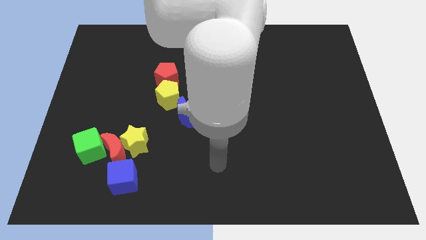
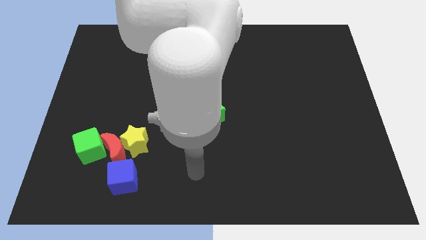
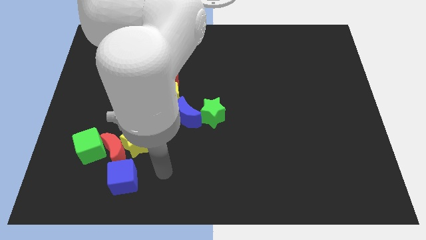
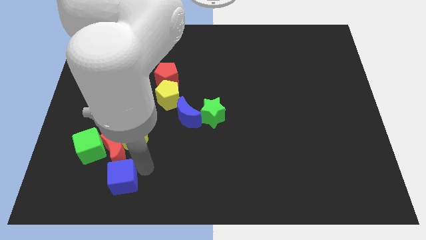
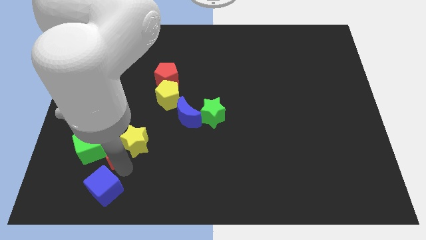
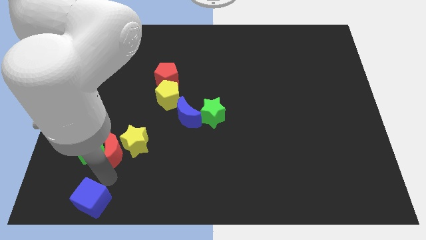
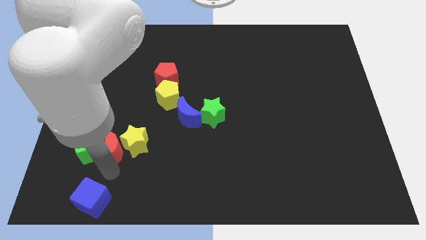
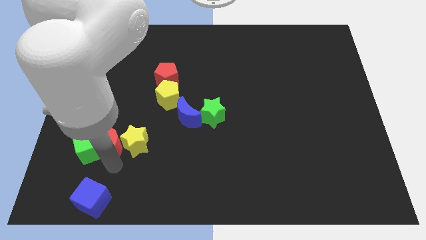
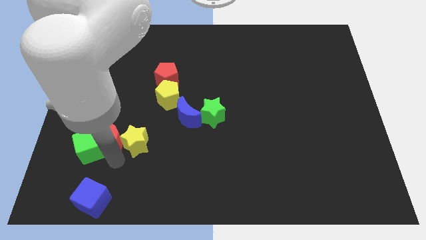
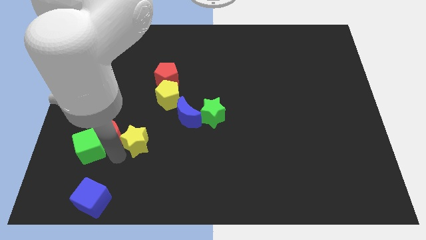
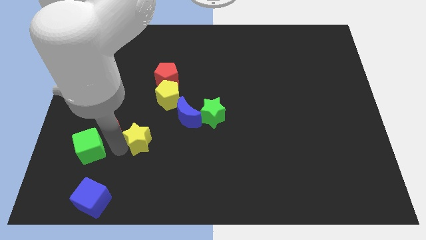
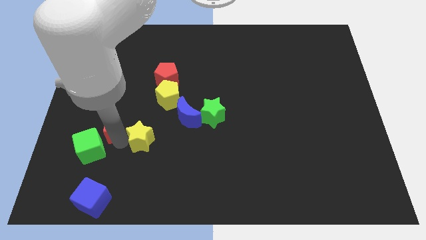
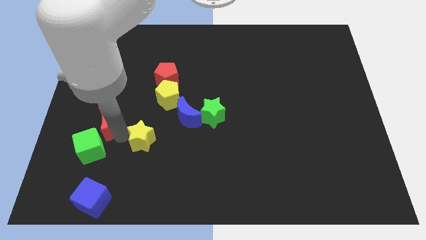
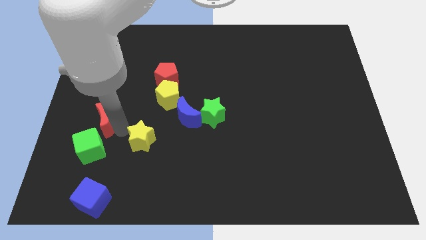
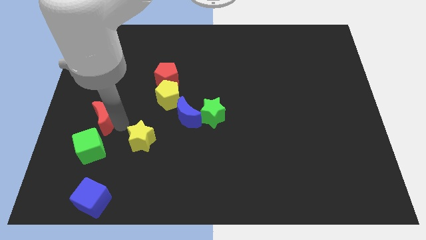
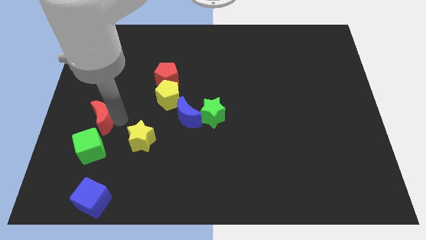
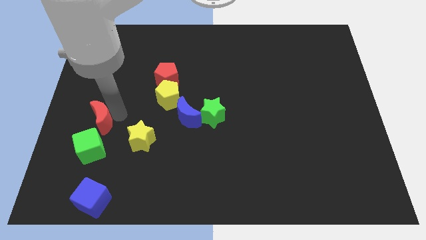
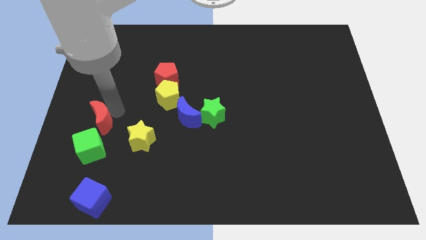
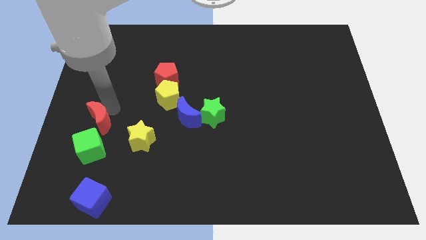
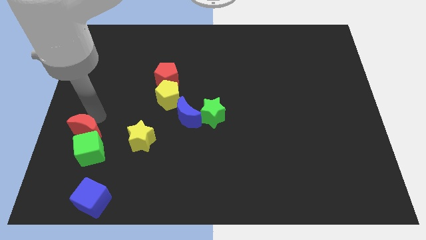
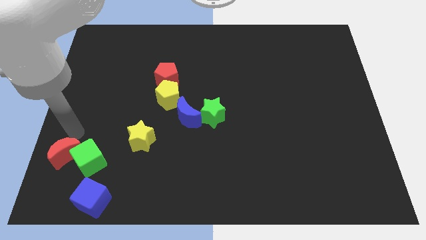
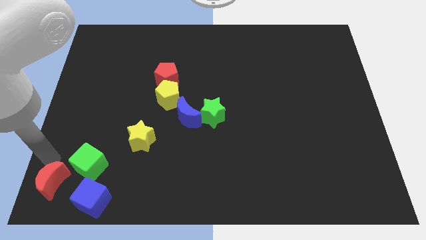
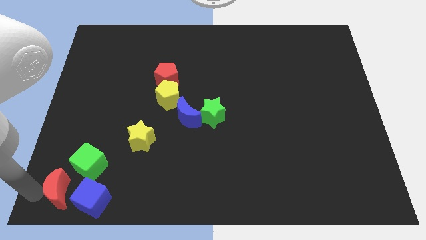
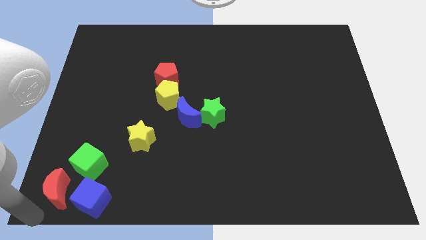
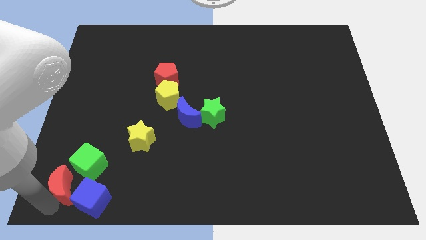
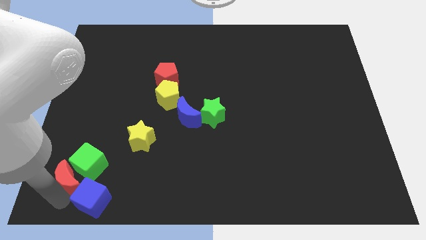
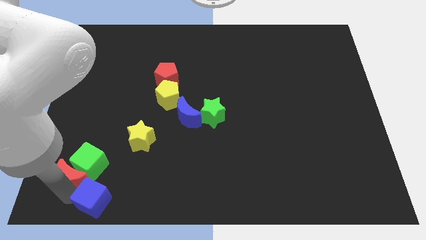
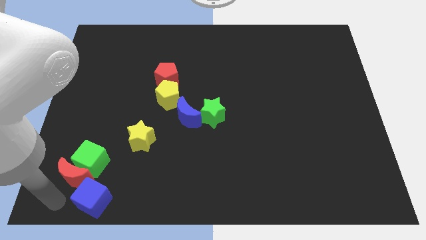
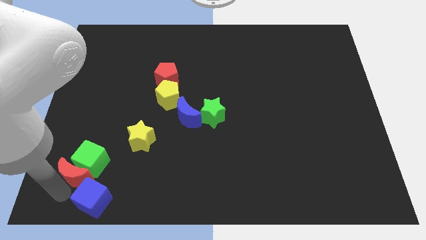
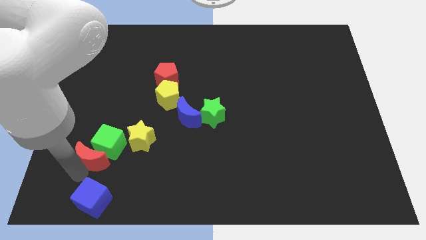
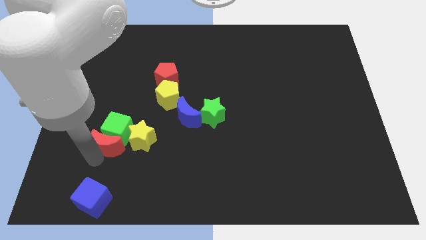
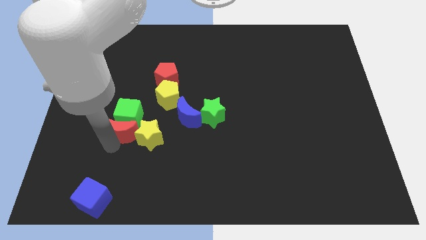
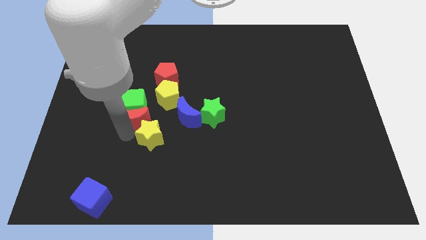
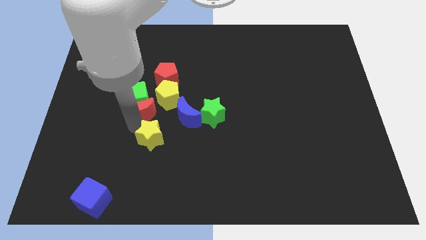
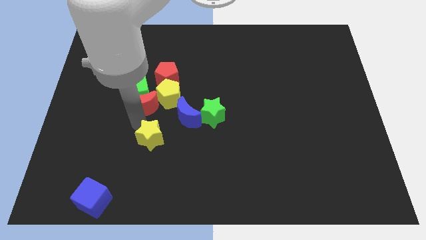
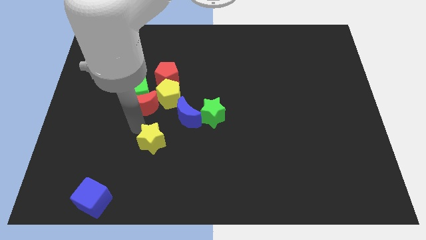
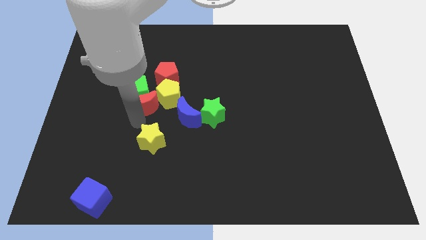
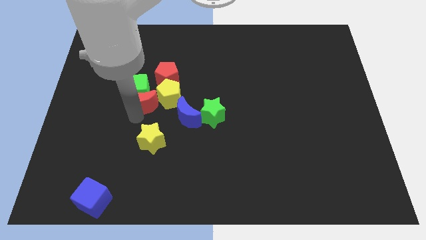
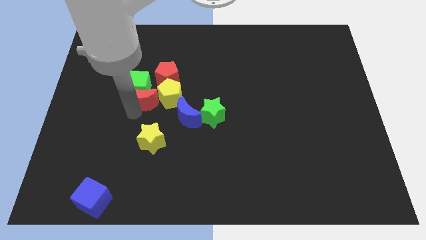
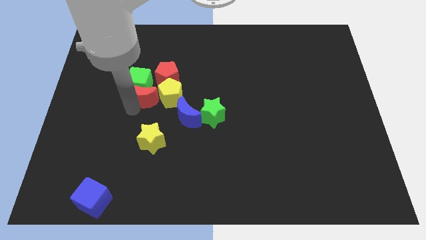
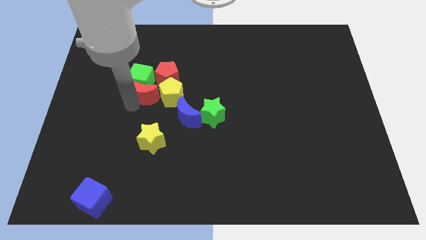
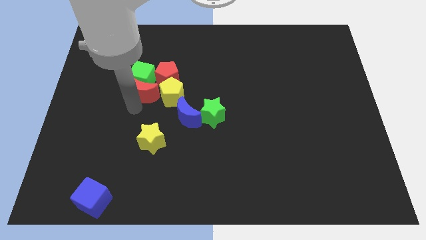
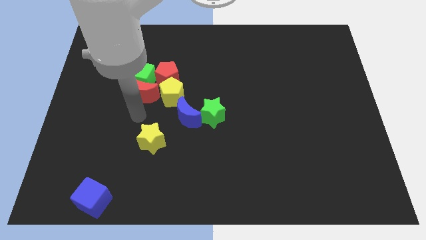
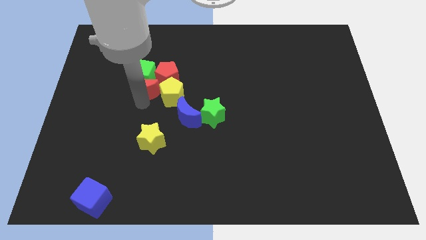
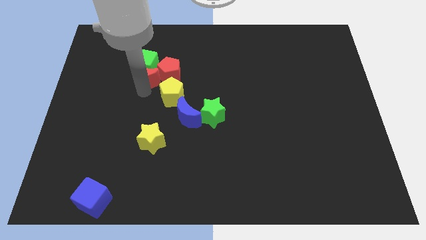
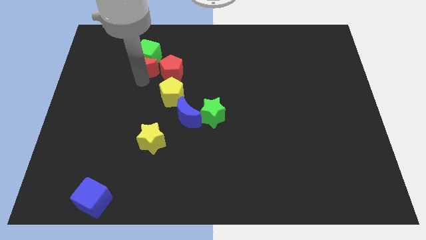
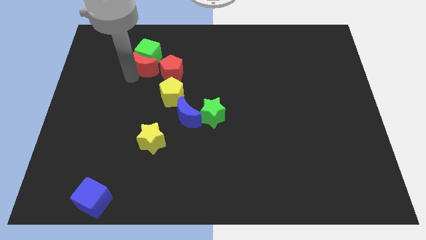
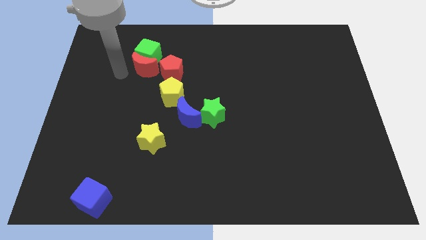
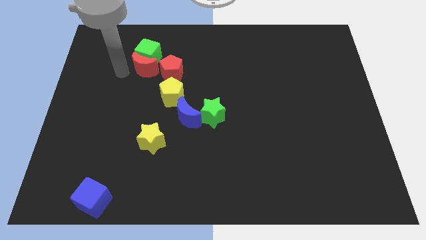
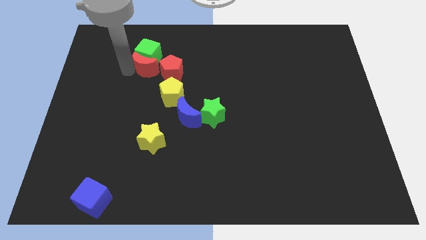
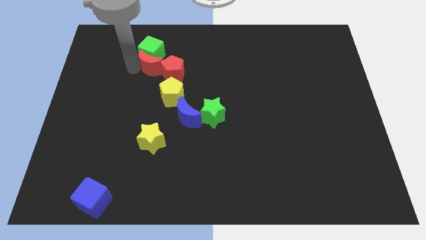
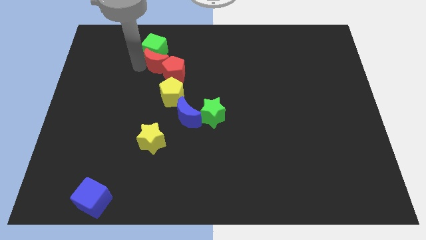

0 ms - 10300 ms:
push the red moon to the top of the yellow pentagon

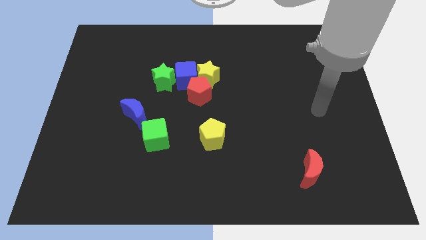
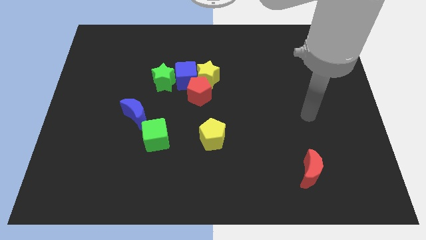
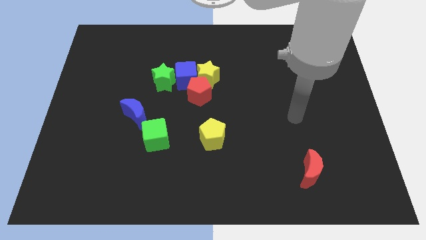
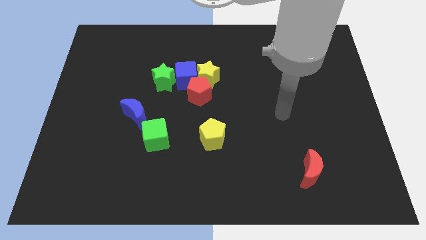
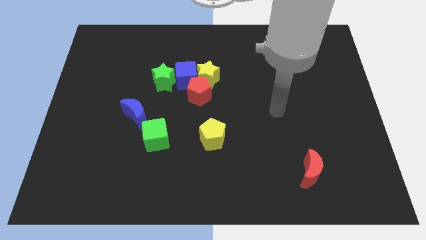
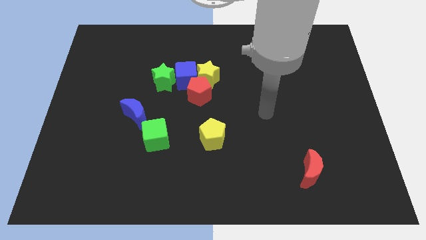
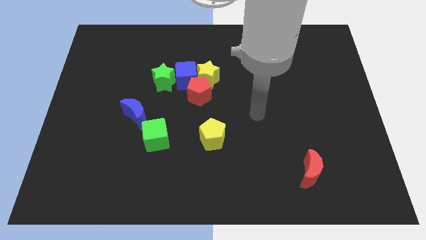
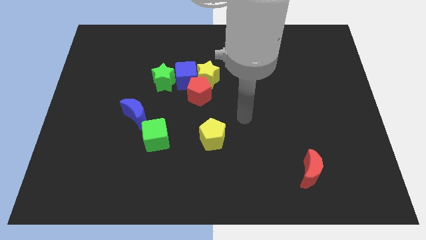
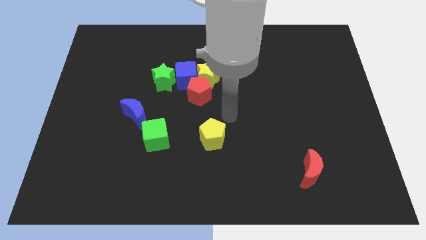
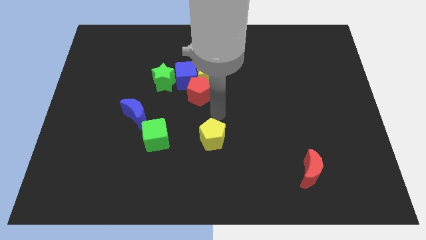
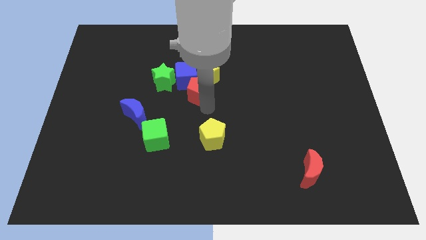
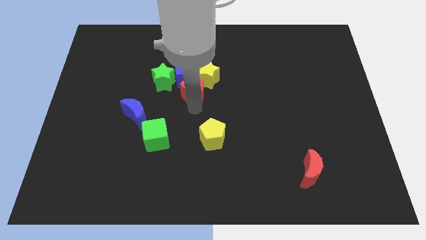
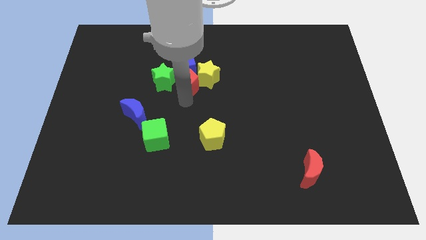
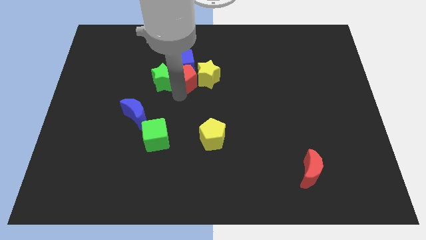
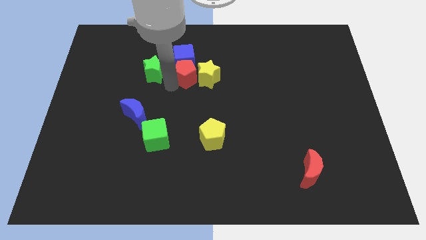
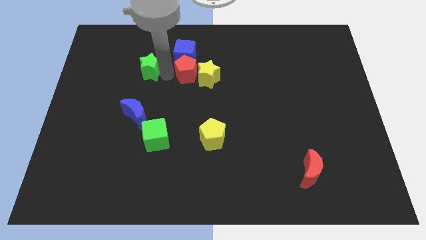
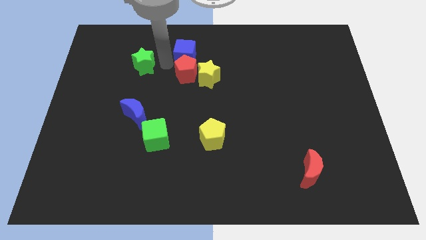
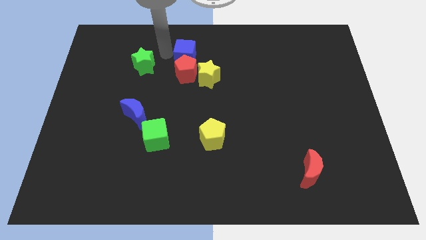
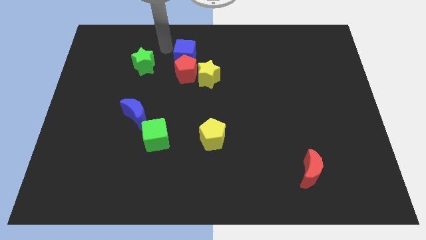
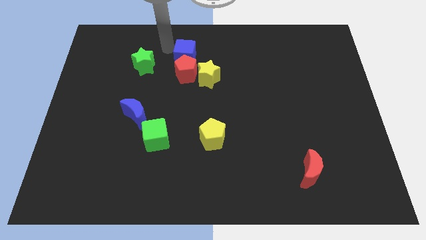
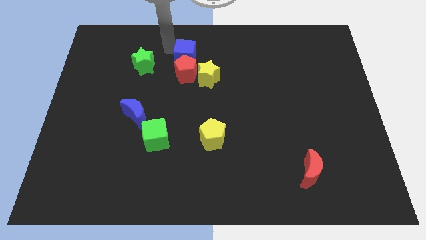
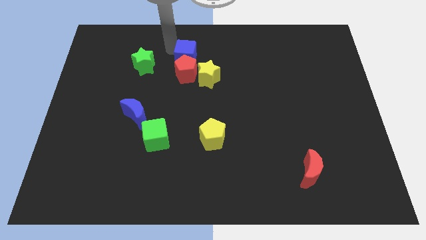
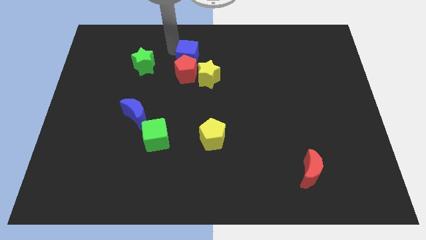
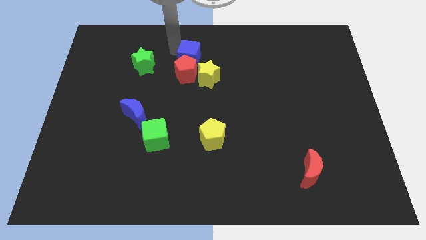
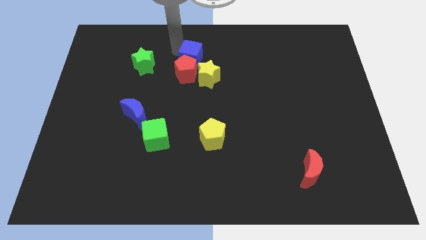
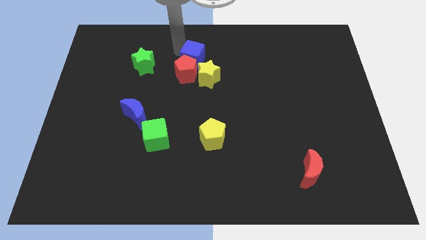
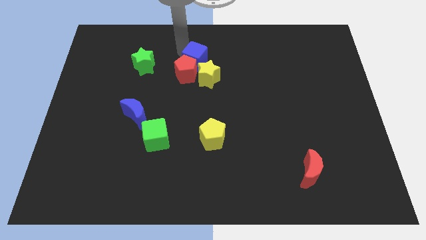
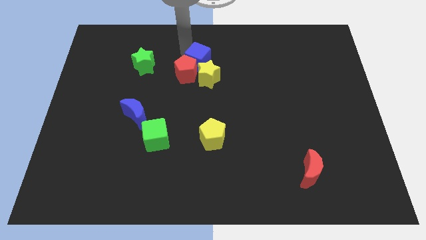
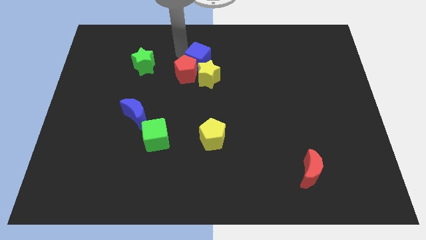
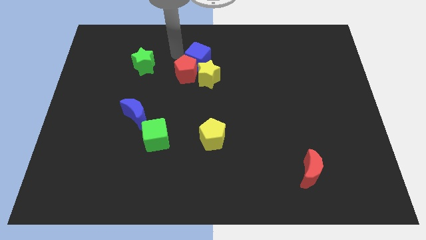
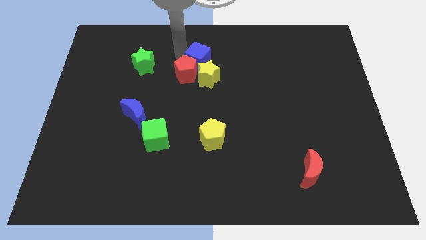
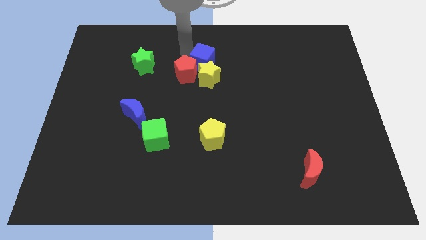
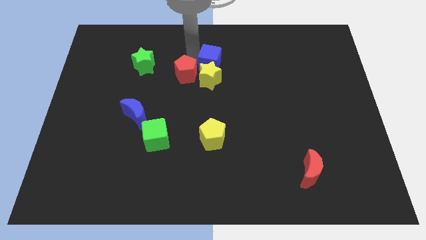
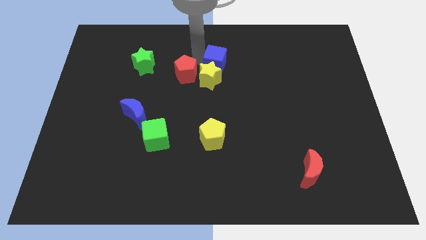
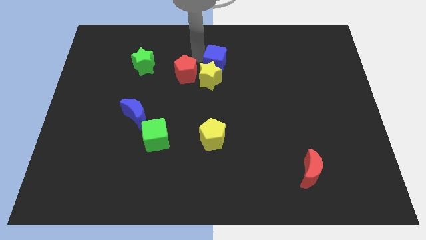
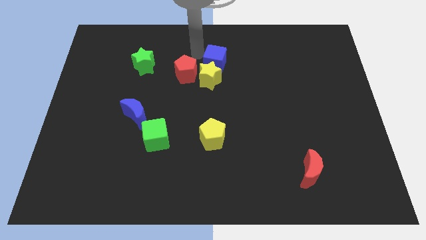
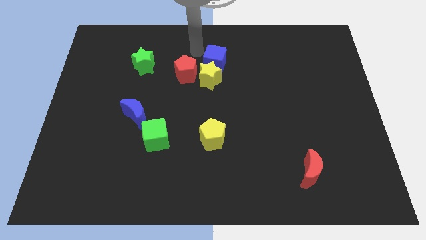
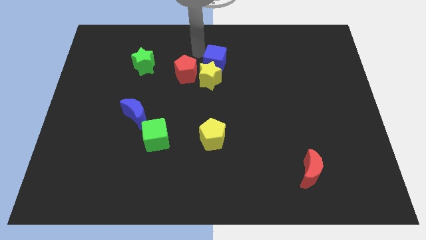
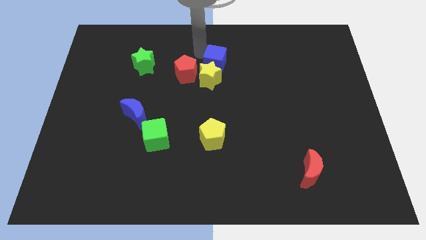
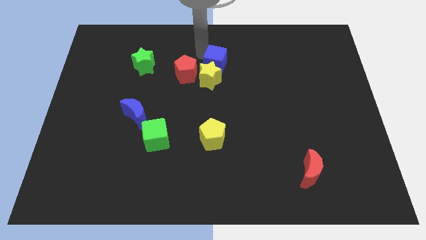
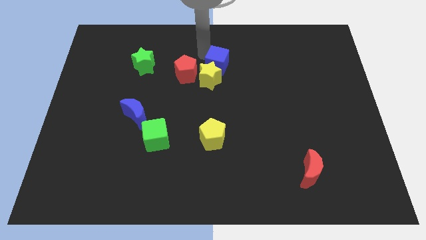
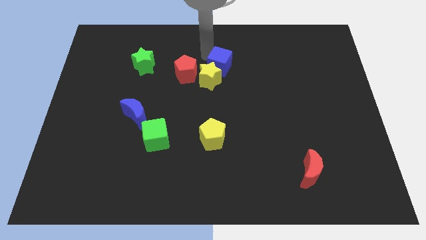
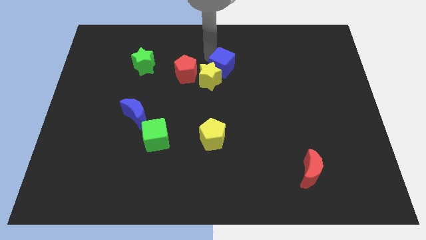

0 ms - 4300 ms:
move the blue cube right of the yellow star
